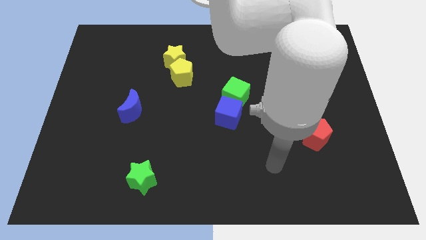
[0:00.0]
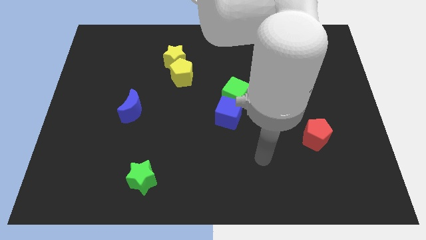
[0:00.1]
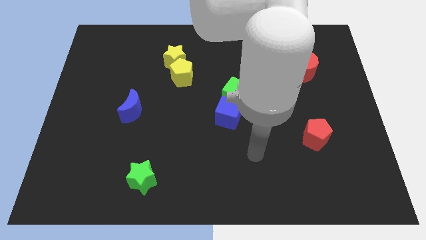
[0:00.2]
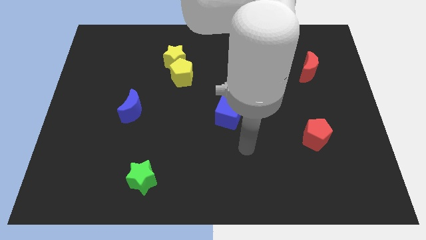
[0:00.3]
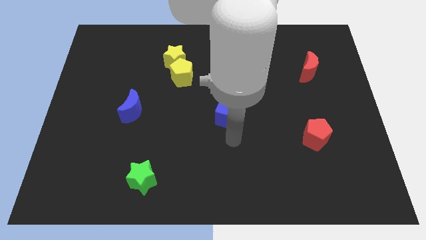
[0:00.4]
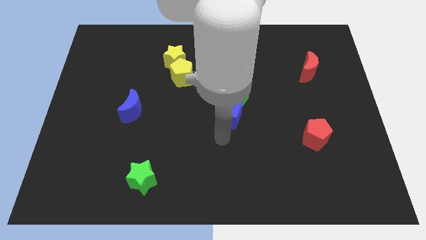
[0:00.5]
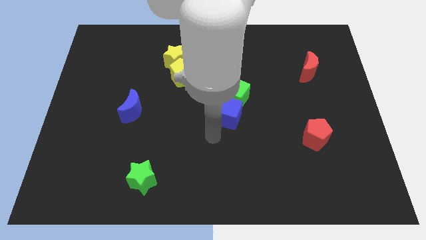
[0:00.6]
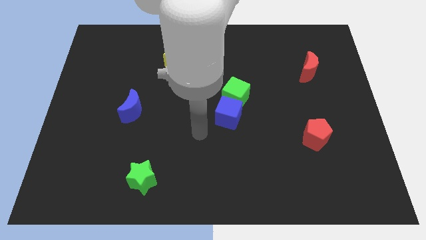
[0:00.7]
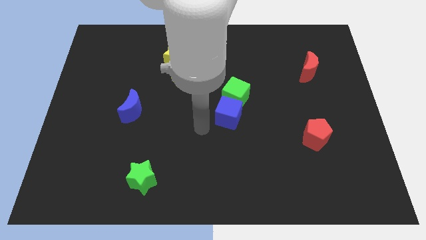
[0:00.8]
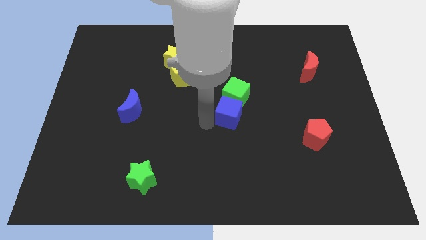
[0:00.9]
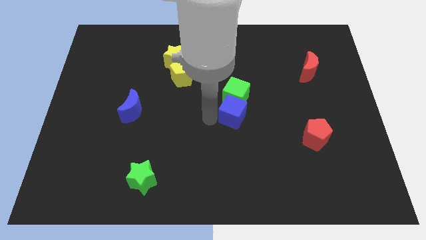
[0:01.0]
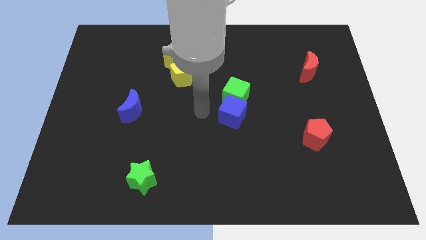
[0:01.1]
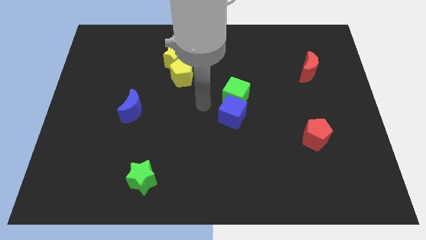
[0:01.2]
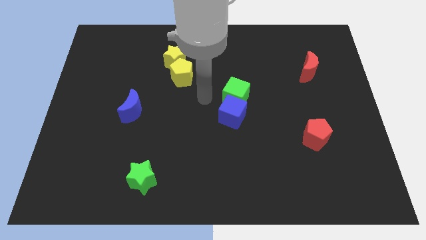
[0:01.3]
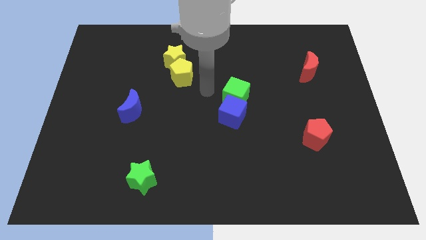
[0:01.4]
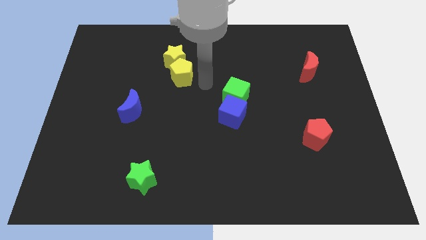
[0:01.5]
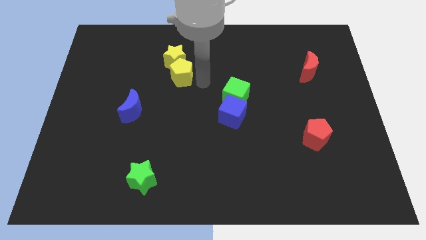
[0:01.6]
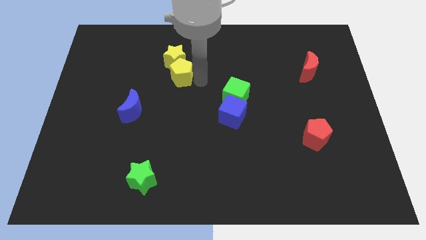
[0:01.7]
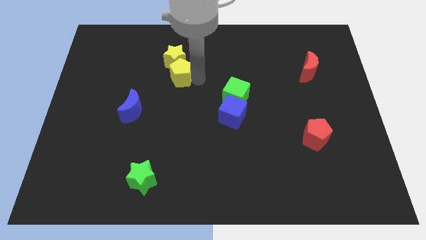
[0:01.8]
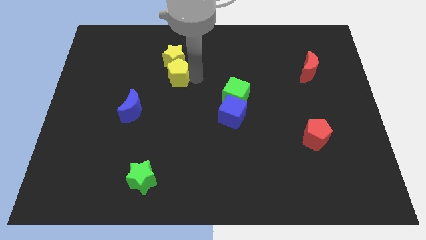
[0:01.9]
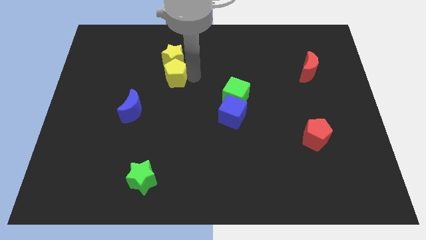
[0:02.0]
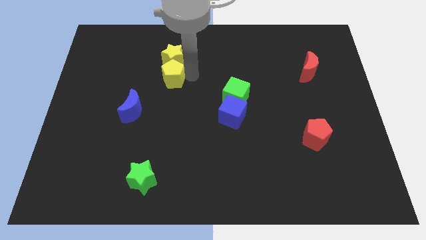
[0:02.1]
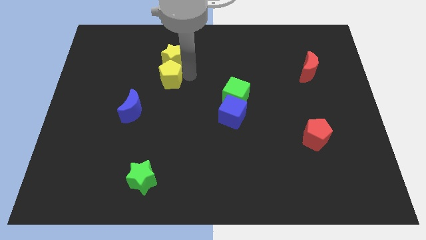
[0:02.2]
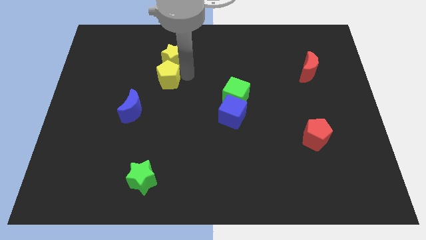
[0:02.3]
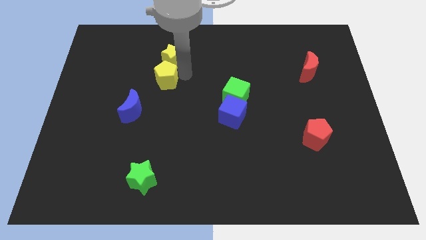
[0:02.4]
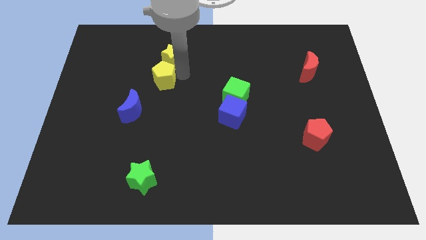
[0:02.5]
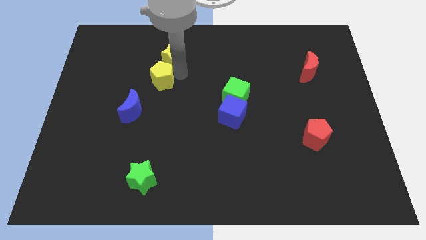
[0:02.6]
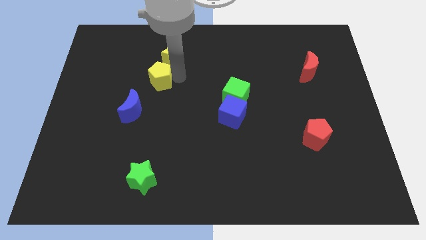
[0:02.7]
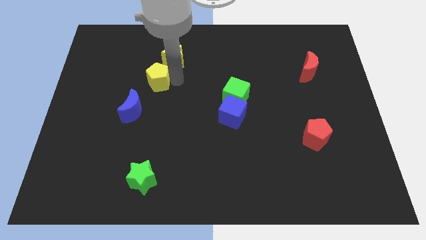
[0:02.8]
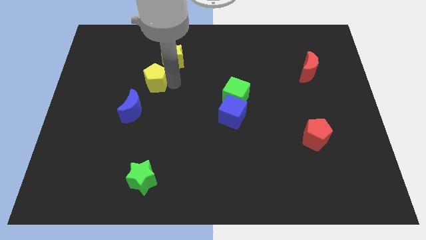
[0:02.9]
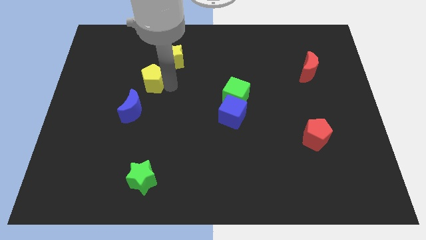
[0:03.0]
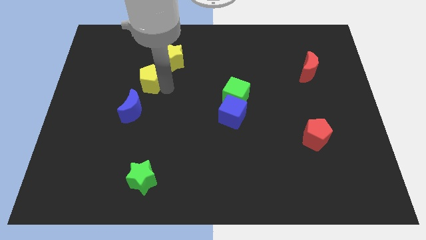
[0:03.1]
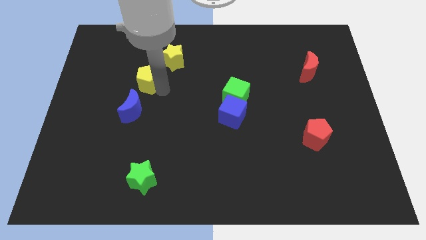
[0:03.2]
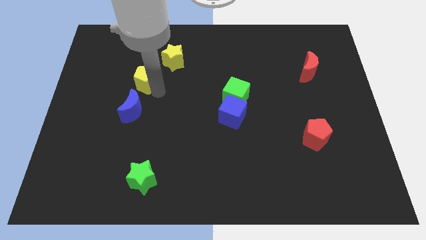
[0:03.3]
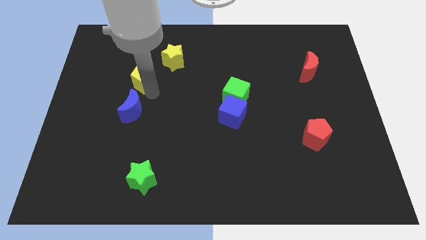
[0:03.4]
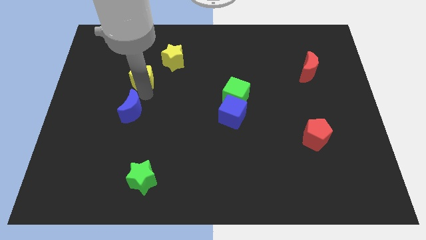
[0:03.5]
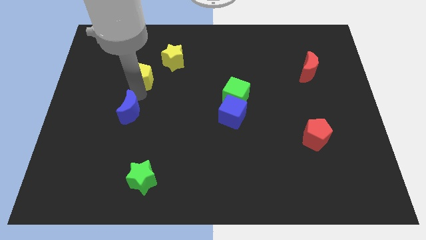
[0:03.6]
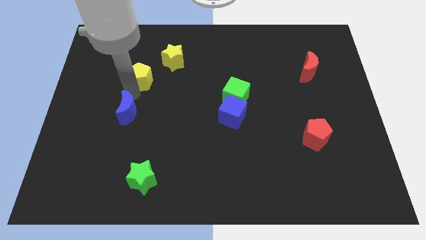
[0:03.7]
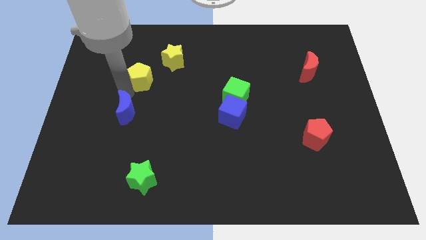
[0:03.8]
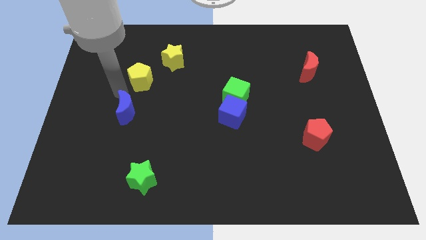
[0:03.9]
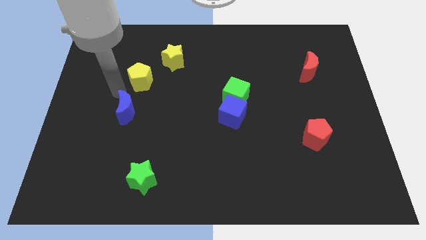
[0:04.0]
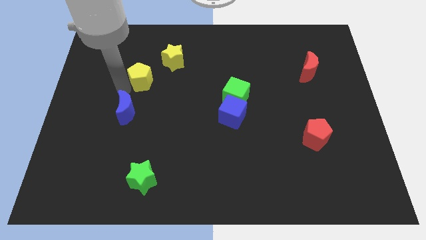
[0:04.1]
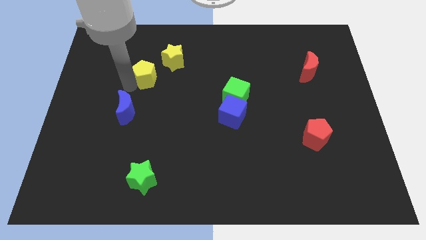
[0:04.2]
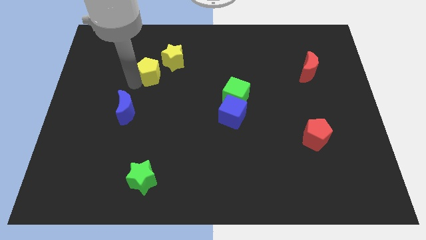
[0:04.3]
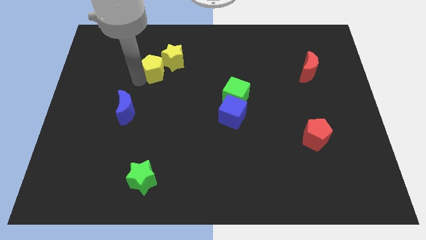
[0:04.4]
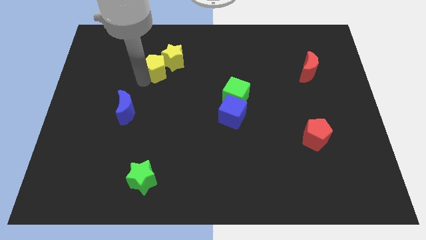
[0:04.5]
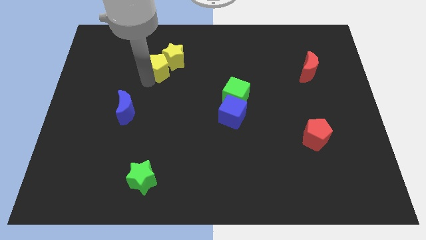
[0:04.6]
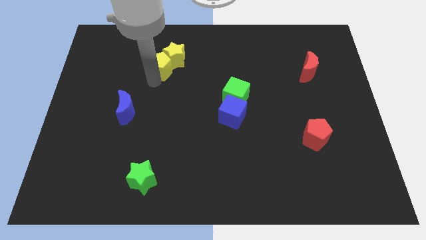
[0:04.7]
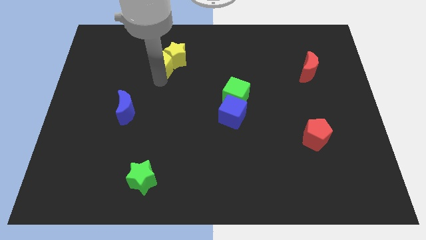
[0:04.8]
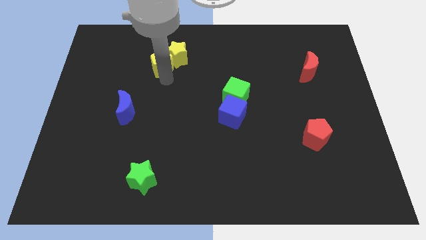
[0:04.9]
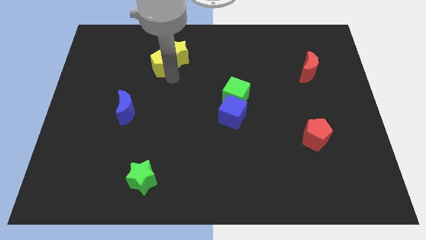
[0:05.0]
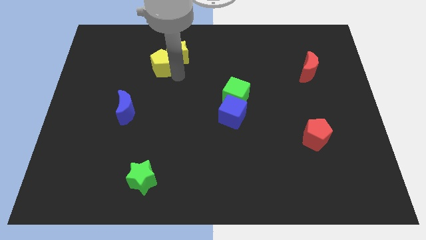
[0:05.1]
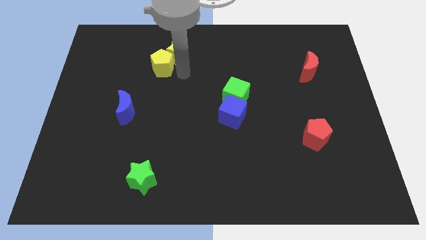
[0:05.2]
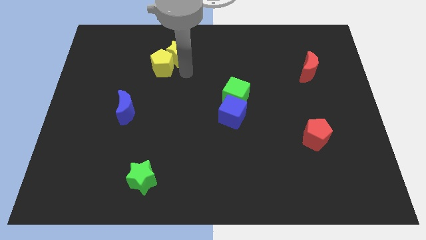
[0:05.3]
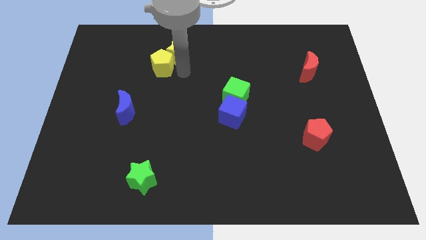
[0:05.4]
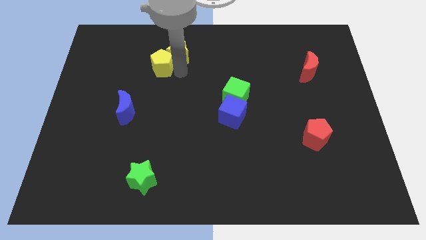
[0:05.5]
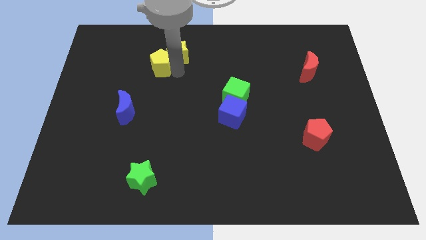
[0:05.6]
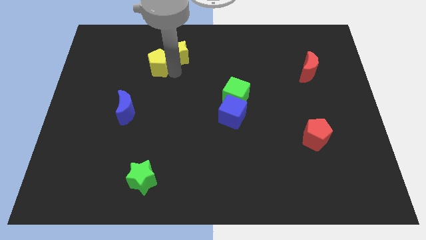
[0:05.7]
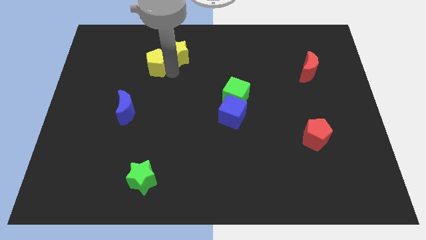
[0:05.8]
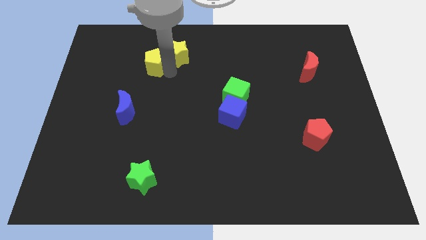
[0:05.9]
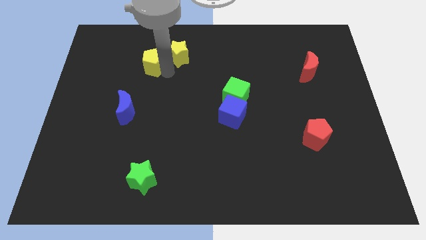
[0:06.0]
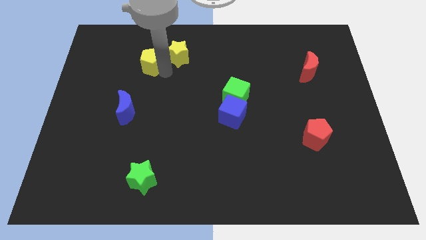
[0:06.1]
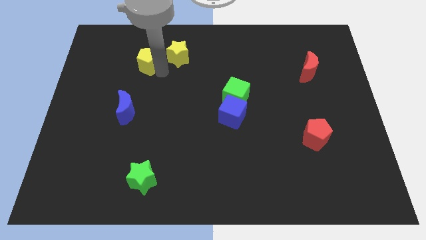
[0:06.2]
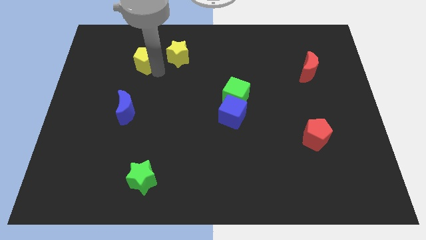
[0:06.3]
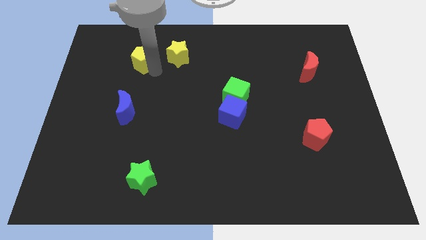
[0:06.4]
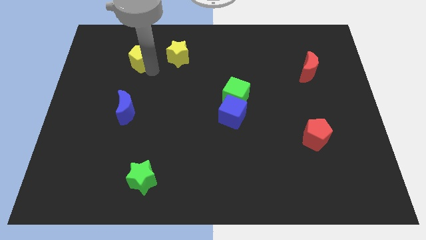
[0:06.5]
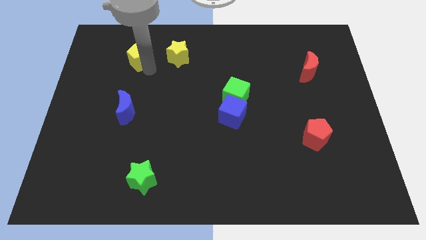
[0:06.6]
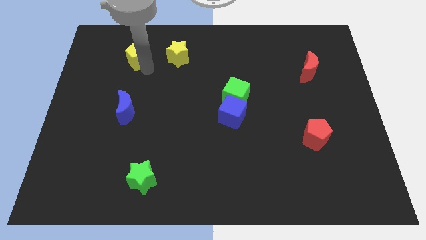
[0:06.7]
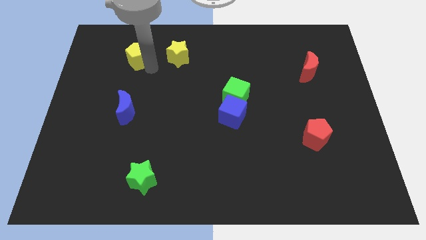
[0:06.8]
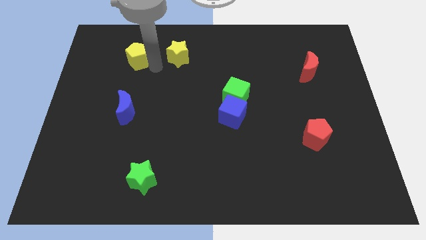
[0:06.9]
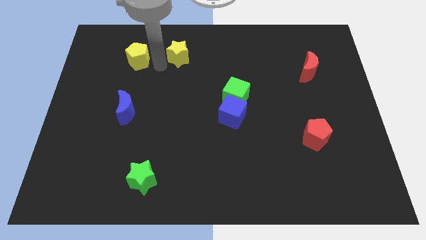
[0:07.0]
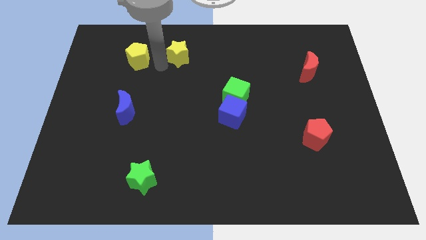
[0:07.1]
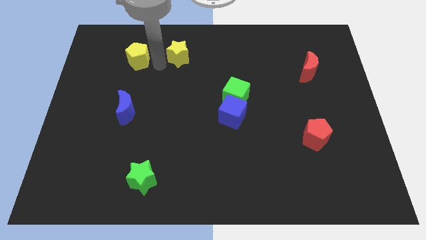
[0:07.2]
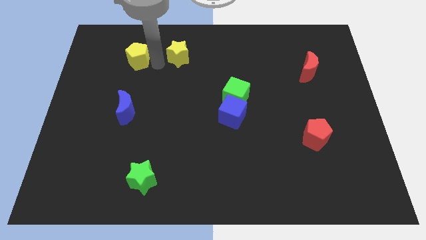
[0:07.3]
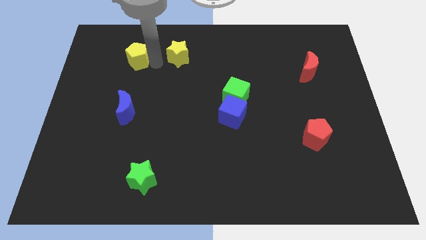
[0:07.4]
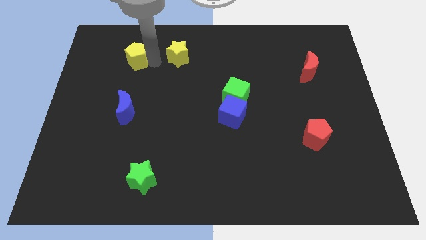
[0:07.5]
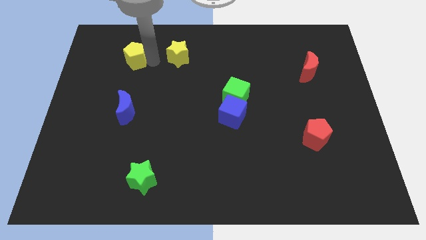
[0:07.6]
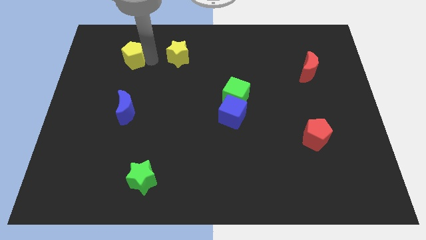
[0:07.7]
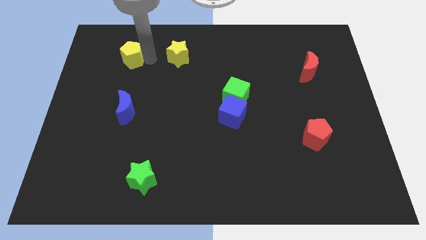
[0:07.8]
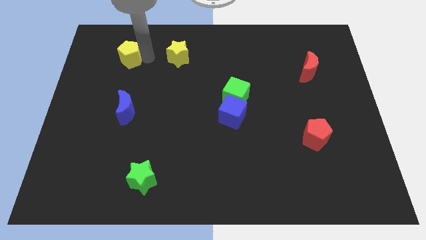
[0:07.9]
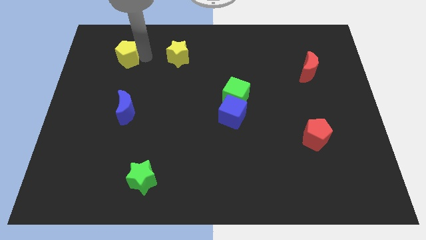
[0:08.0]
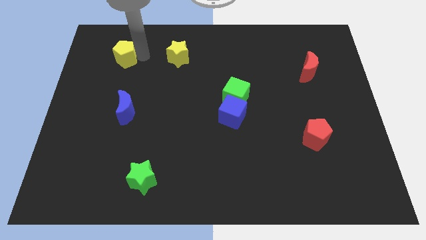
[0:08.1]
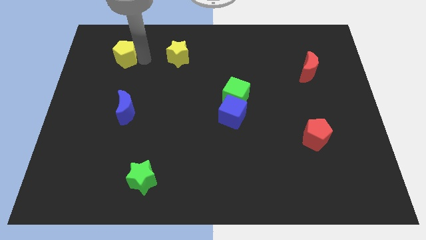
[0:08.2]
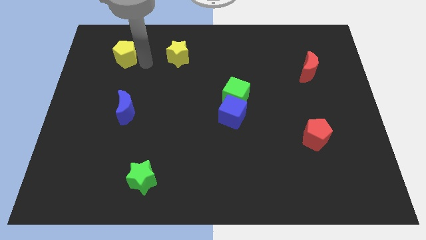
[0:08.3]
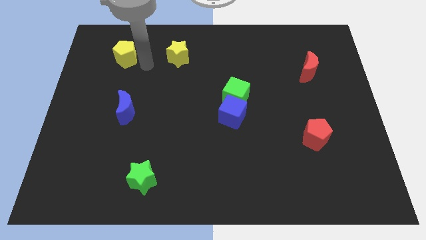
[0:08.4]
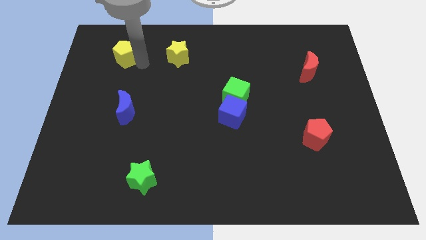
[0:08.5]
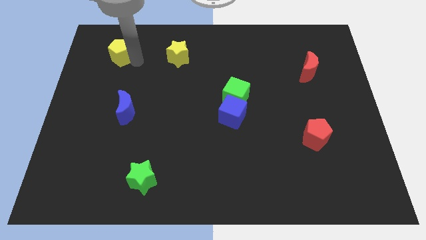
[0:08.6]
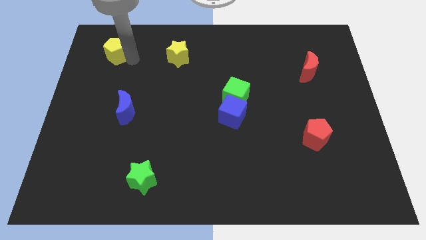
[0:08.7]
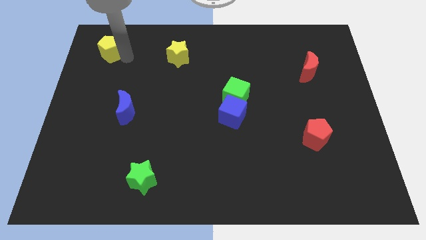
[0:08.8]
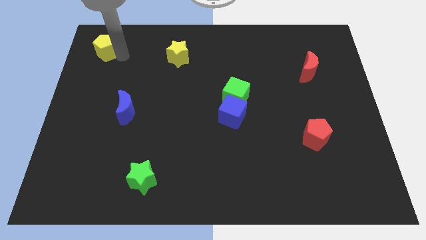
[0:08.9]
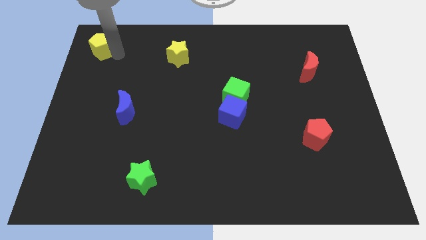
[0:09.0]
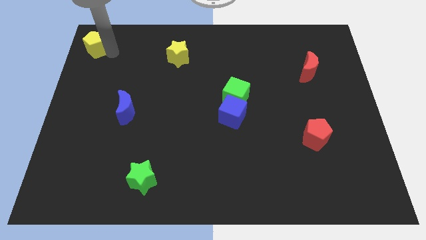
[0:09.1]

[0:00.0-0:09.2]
move the yellow pentagon to the top left of the board
